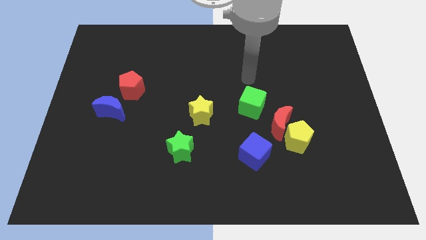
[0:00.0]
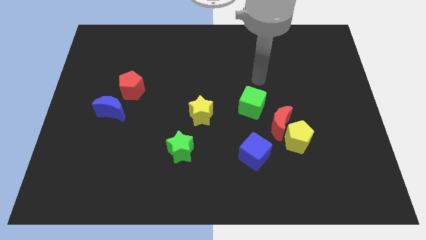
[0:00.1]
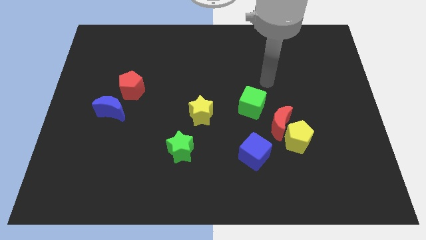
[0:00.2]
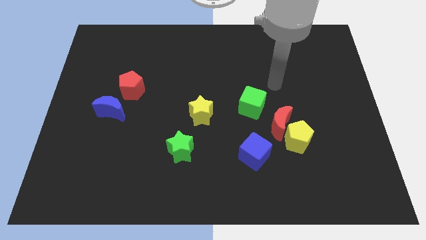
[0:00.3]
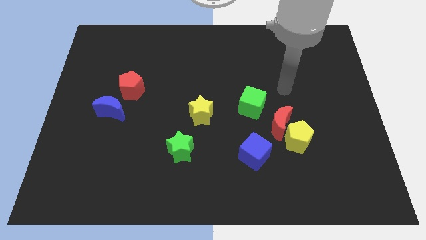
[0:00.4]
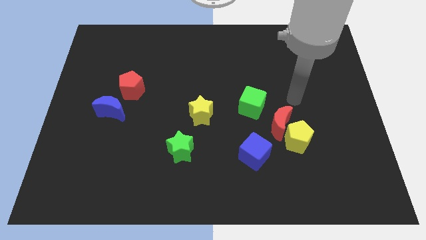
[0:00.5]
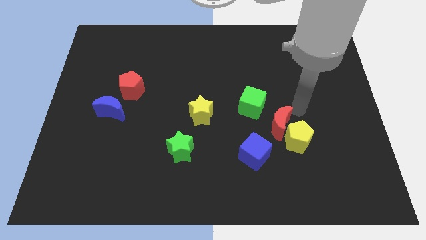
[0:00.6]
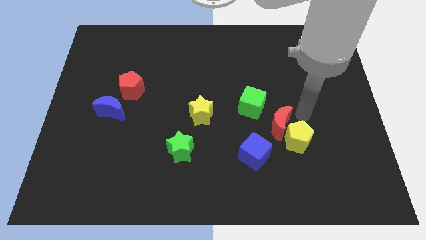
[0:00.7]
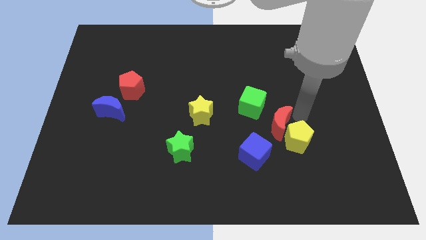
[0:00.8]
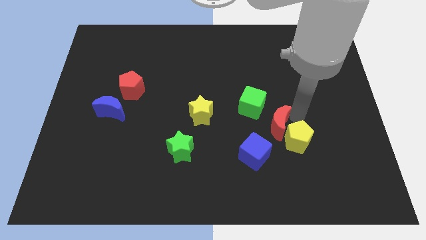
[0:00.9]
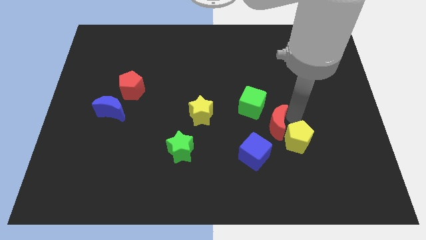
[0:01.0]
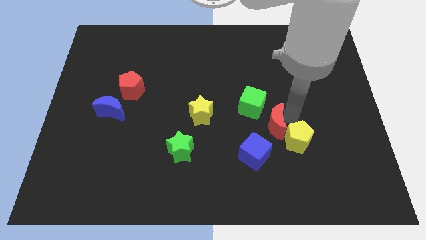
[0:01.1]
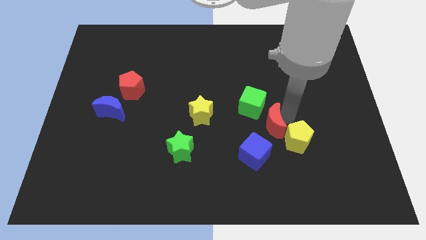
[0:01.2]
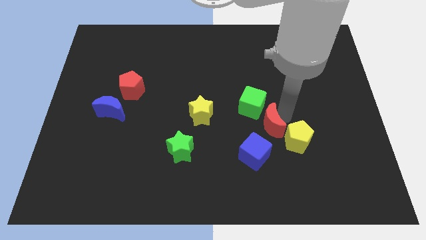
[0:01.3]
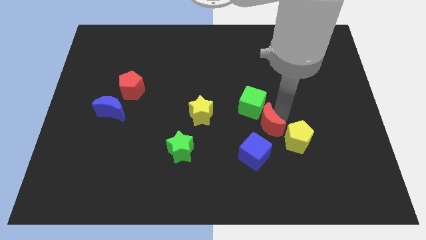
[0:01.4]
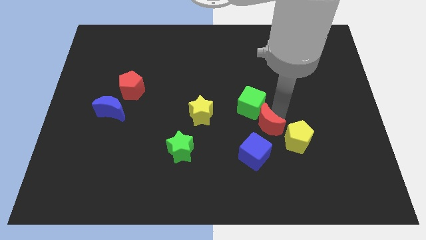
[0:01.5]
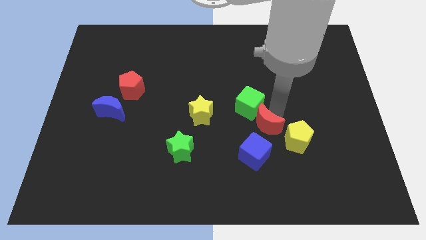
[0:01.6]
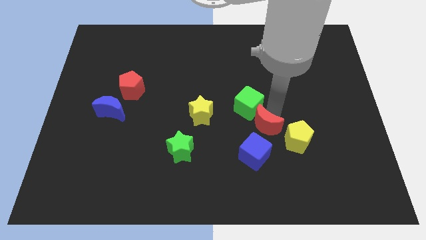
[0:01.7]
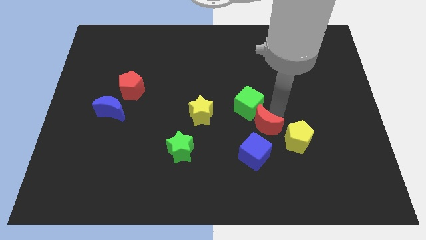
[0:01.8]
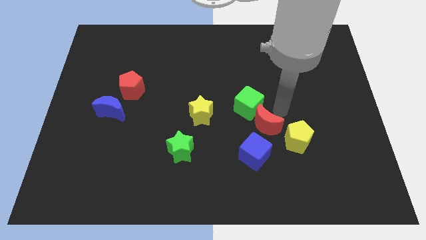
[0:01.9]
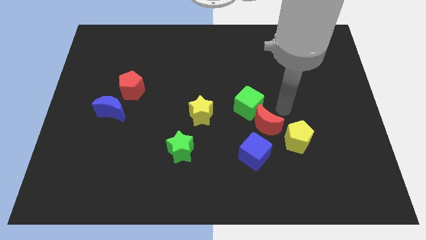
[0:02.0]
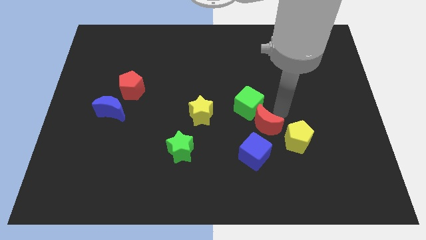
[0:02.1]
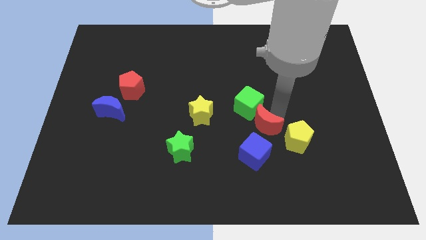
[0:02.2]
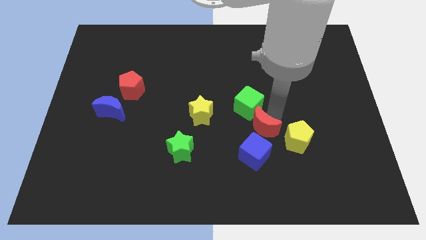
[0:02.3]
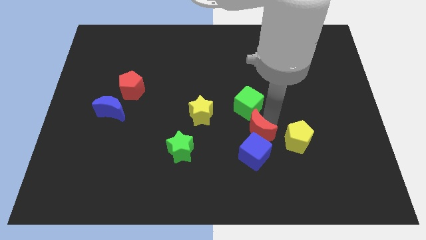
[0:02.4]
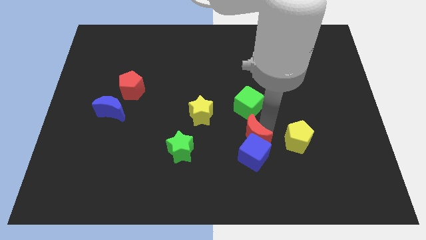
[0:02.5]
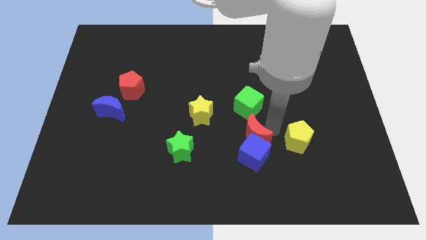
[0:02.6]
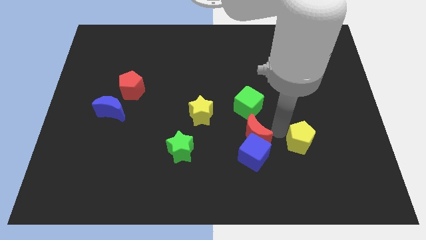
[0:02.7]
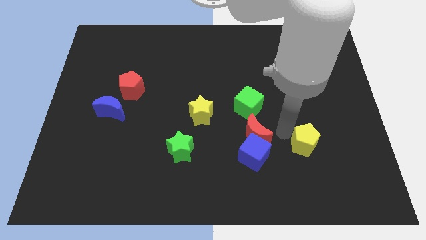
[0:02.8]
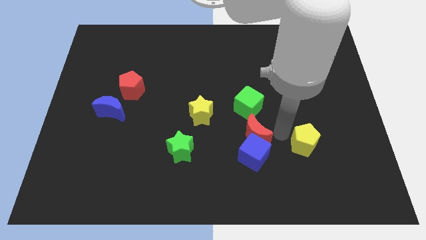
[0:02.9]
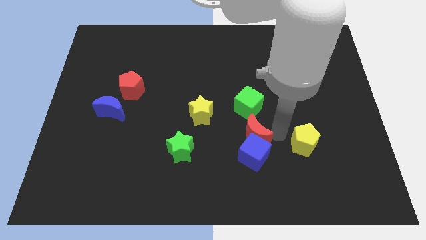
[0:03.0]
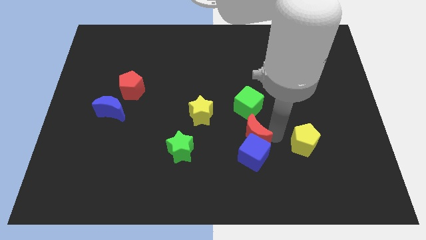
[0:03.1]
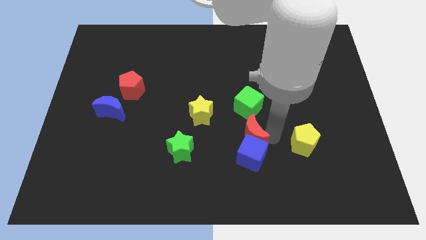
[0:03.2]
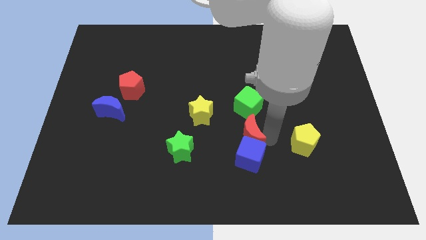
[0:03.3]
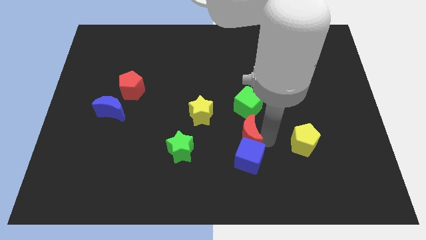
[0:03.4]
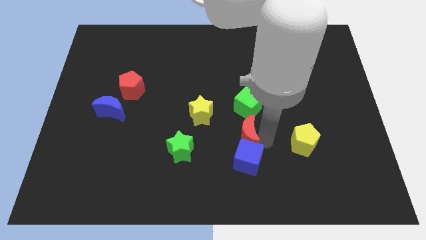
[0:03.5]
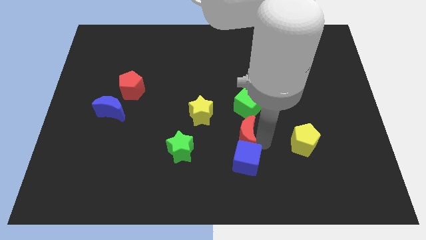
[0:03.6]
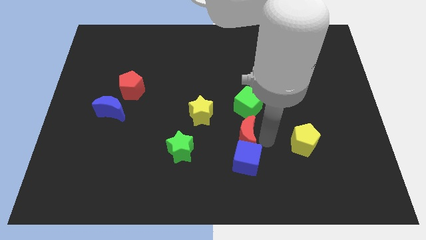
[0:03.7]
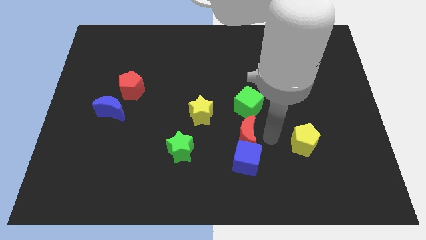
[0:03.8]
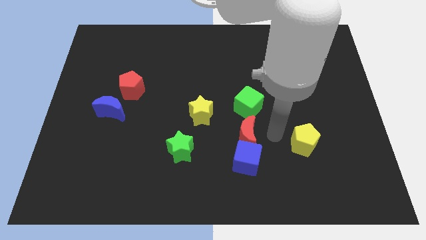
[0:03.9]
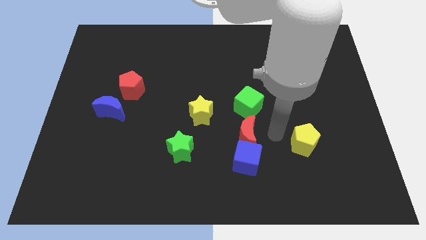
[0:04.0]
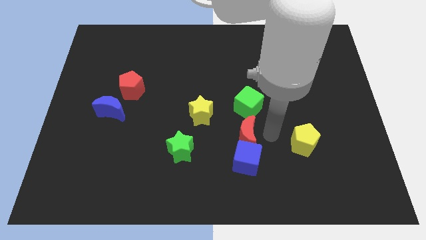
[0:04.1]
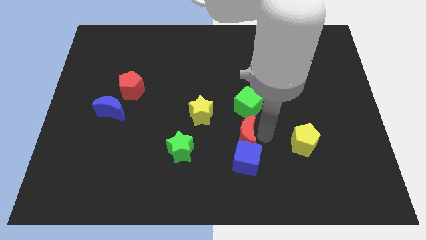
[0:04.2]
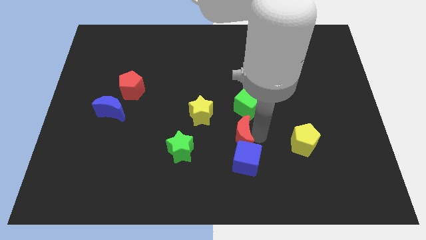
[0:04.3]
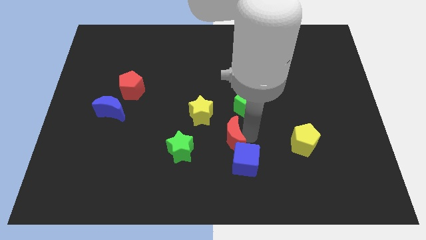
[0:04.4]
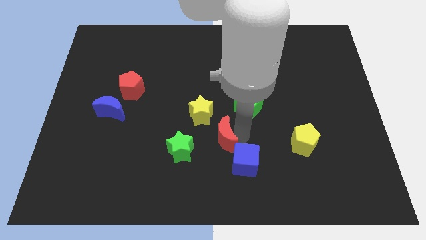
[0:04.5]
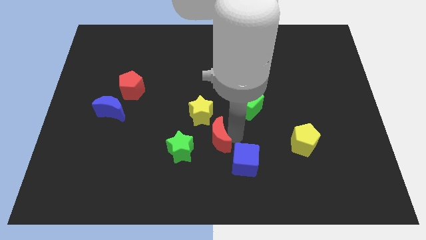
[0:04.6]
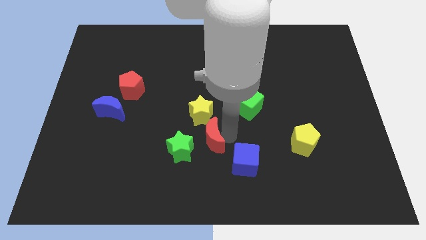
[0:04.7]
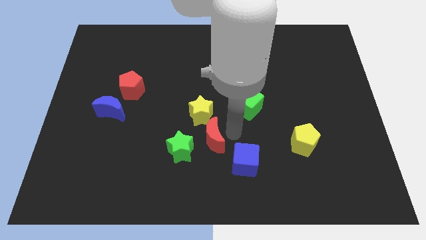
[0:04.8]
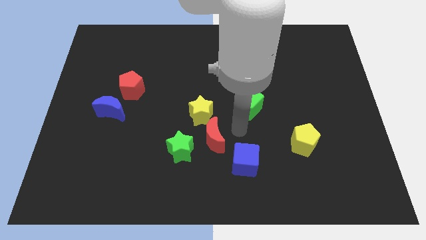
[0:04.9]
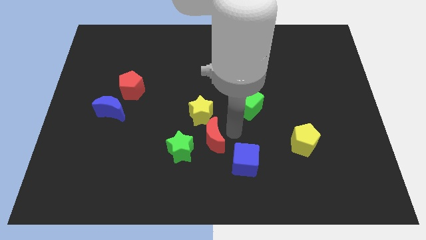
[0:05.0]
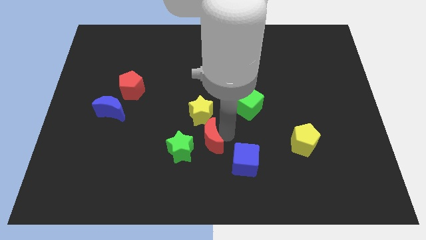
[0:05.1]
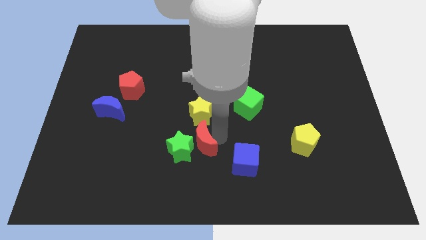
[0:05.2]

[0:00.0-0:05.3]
put the red moon towards the green star

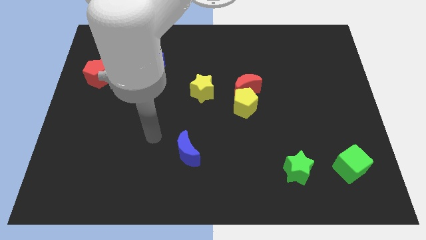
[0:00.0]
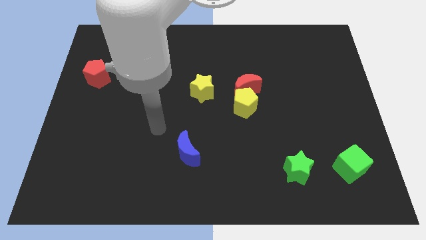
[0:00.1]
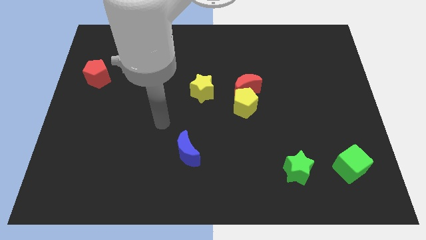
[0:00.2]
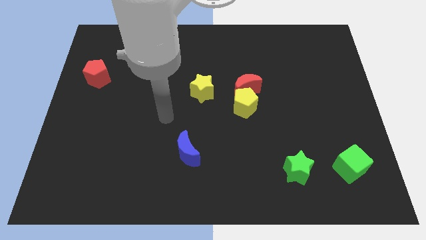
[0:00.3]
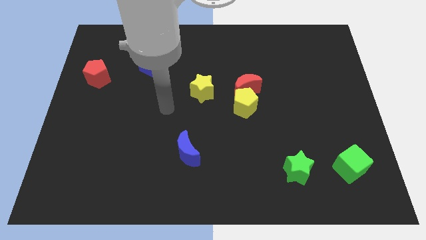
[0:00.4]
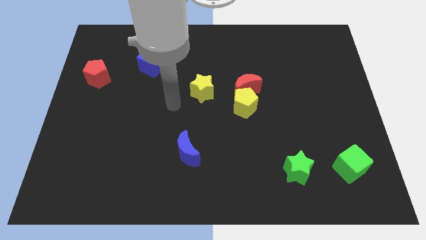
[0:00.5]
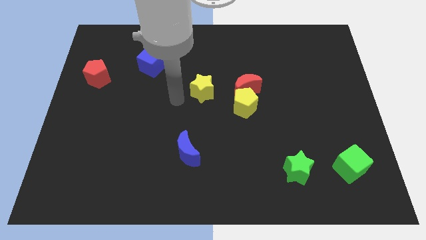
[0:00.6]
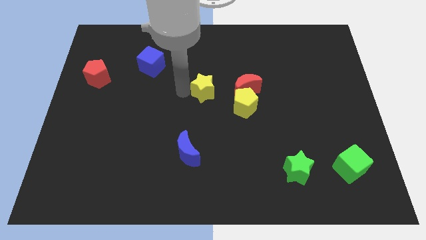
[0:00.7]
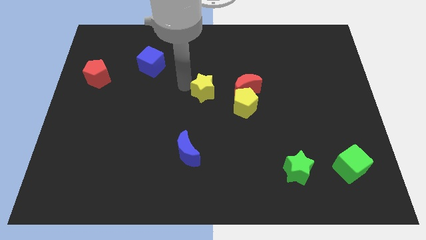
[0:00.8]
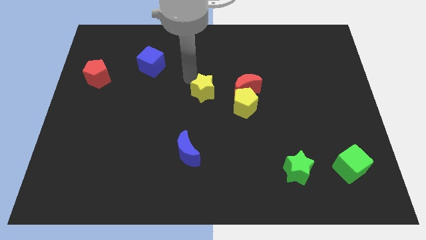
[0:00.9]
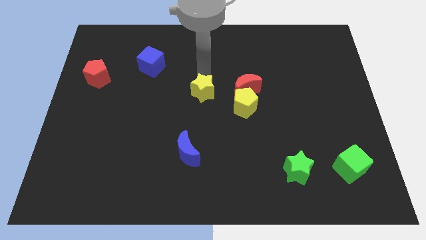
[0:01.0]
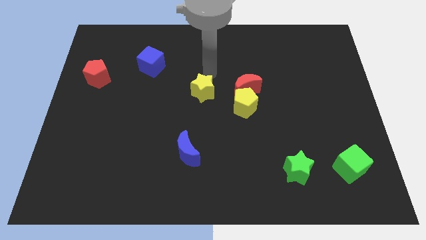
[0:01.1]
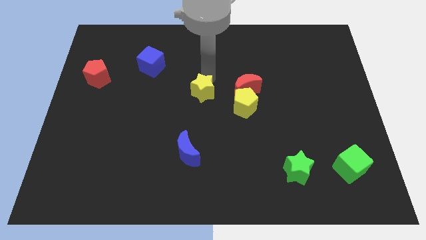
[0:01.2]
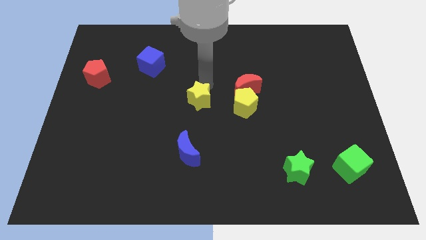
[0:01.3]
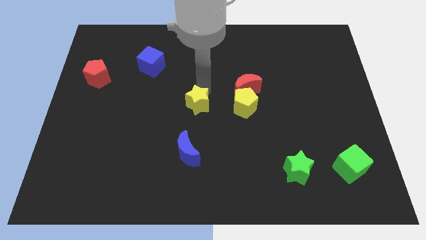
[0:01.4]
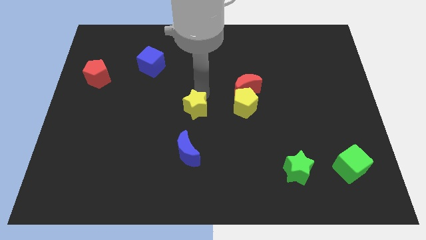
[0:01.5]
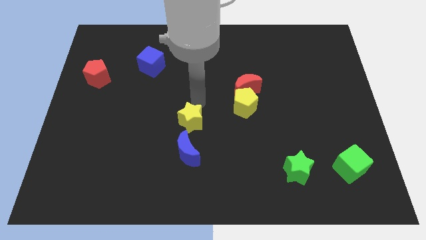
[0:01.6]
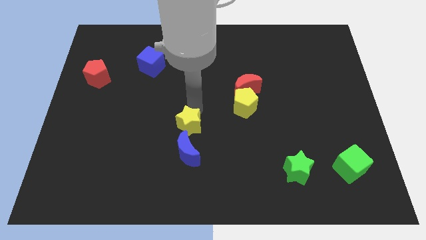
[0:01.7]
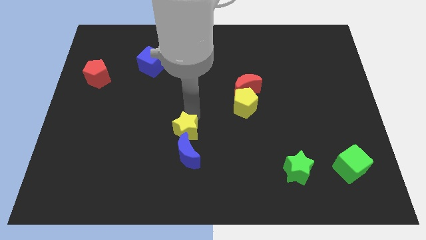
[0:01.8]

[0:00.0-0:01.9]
slide the yellow star to the blue moon

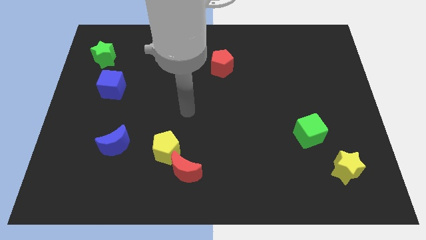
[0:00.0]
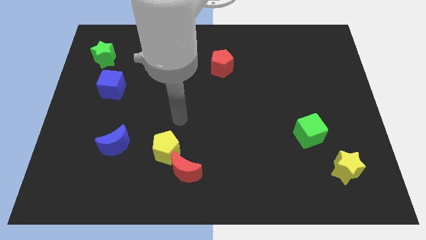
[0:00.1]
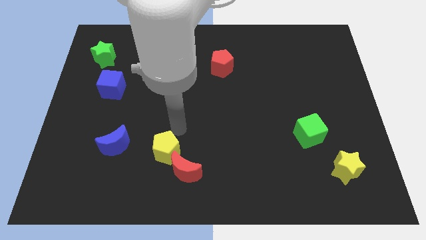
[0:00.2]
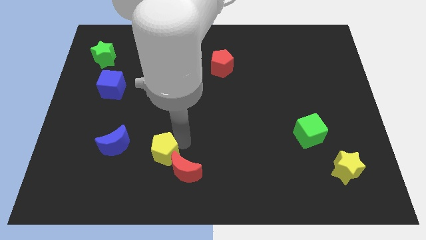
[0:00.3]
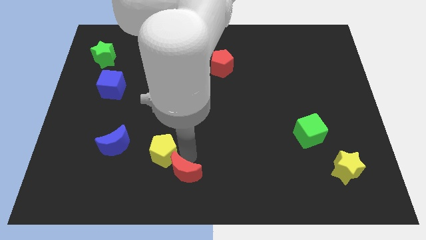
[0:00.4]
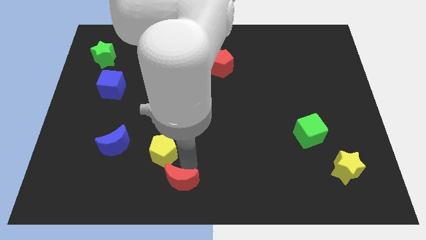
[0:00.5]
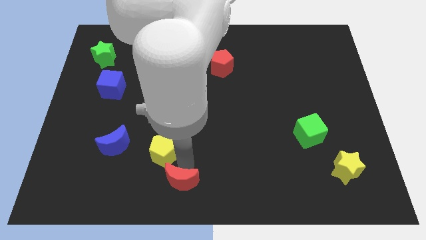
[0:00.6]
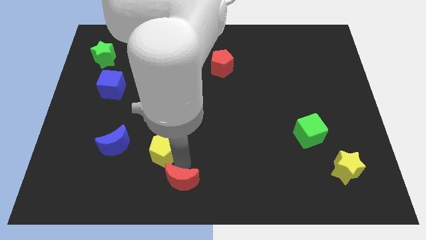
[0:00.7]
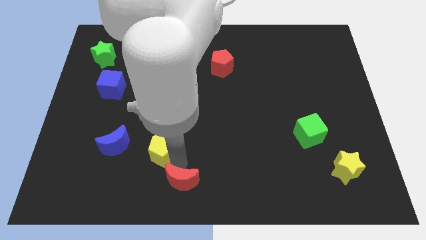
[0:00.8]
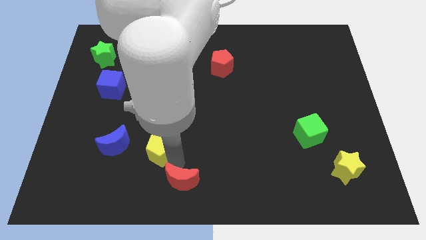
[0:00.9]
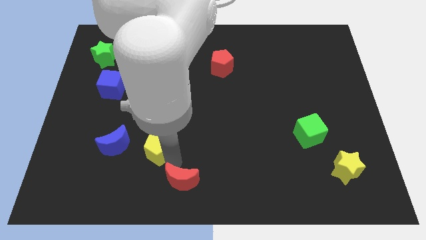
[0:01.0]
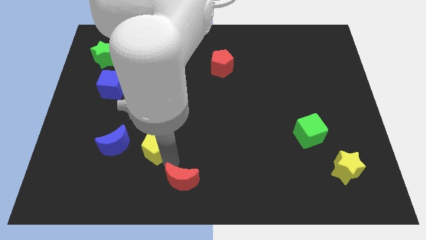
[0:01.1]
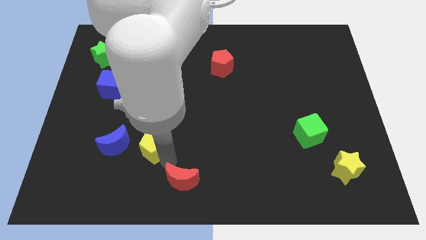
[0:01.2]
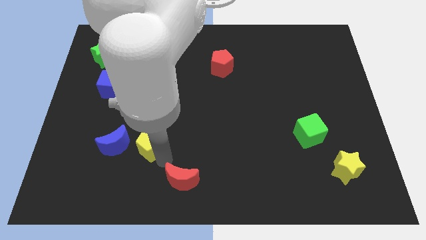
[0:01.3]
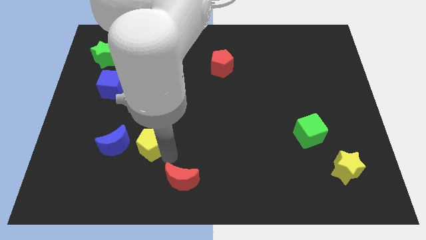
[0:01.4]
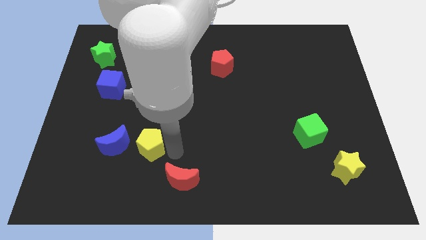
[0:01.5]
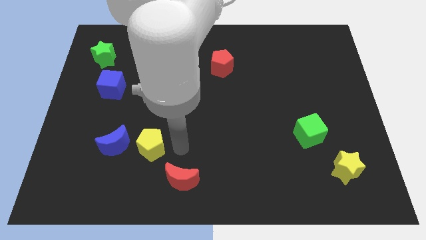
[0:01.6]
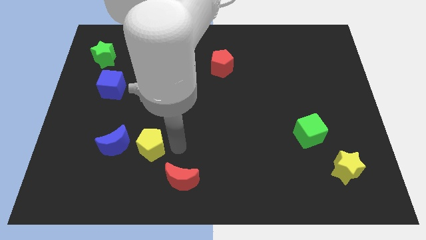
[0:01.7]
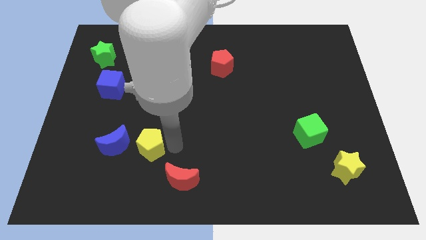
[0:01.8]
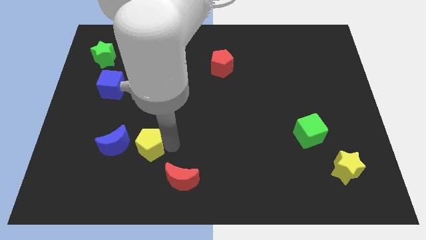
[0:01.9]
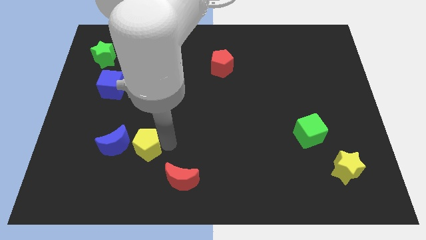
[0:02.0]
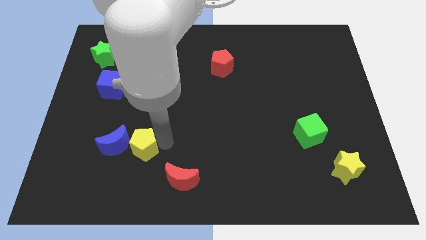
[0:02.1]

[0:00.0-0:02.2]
slide the yellow pentagon next to the blue moon
